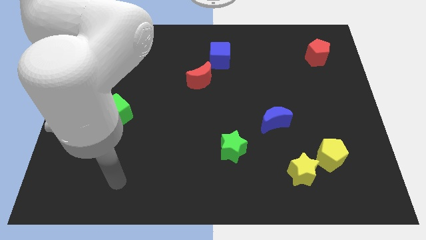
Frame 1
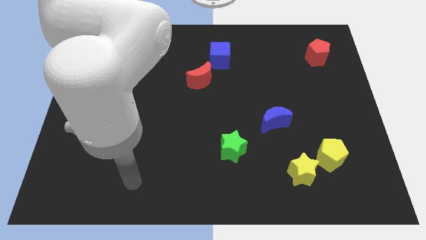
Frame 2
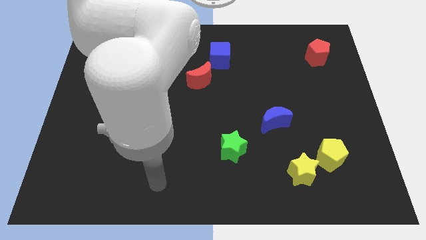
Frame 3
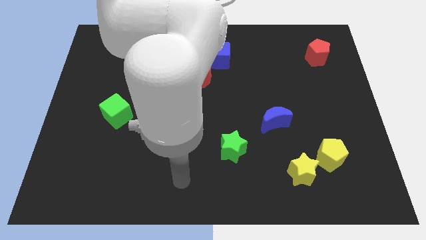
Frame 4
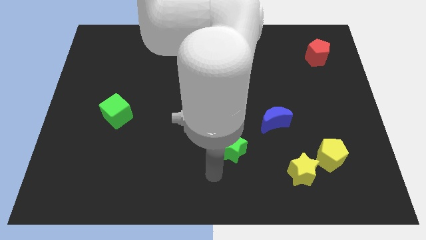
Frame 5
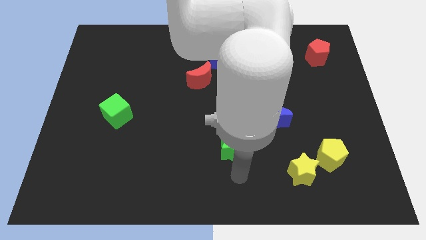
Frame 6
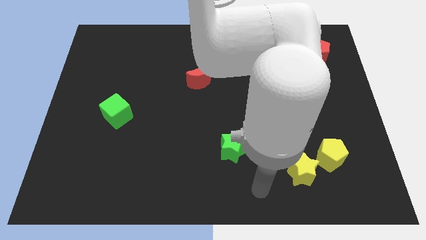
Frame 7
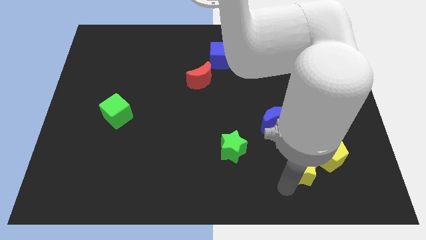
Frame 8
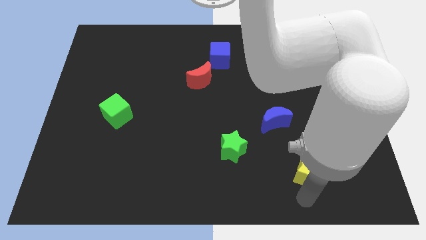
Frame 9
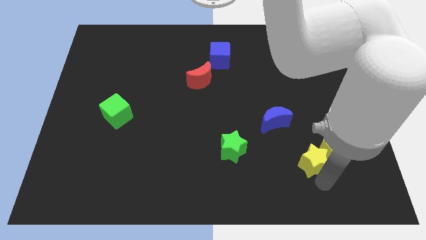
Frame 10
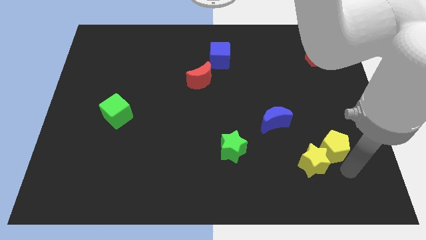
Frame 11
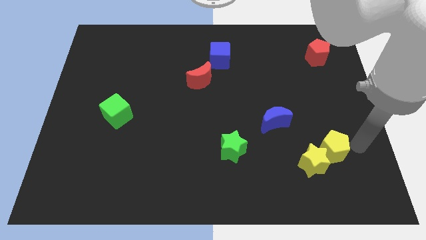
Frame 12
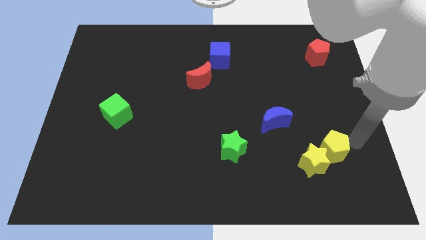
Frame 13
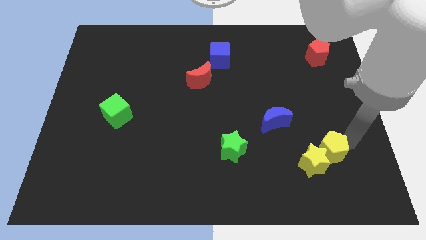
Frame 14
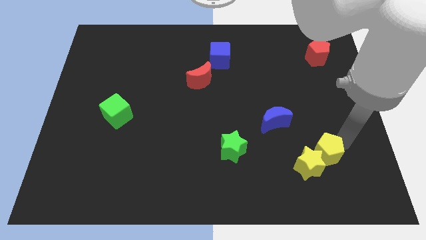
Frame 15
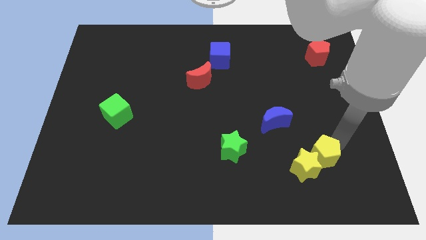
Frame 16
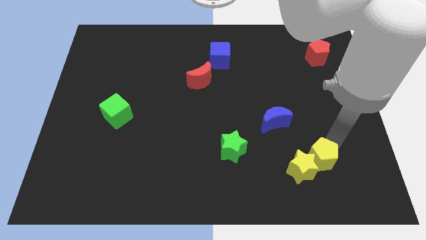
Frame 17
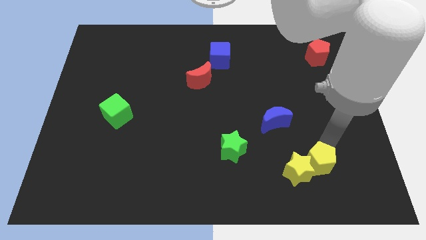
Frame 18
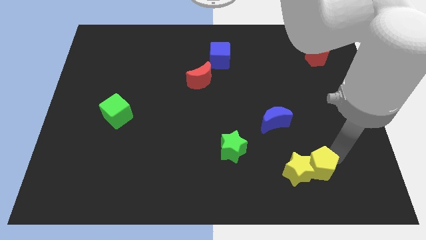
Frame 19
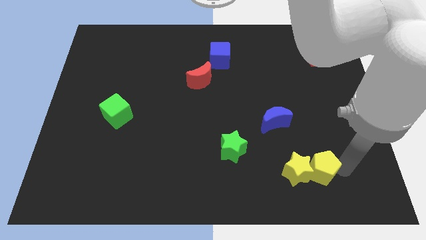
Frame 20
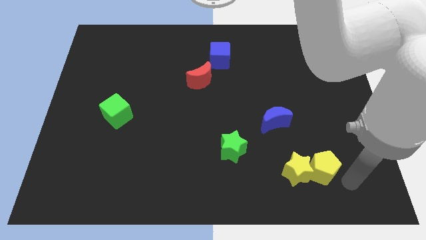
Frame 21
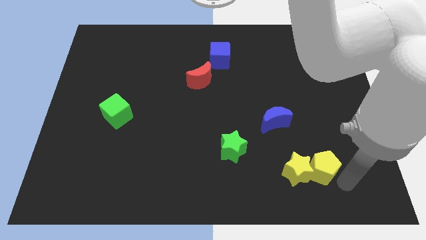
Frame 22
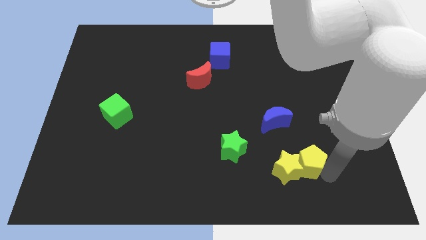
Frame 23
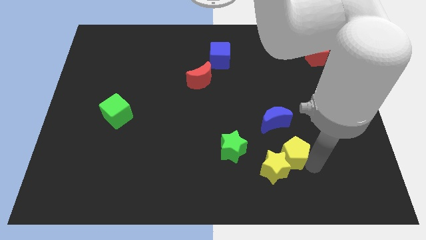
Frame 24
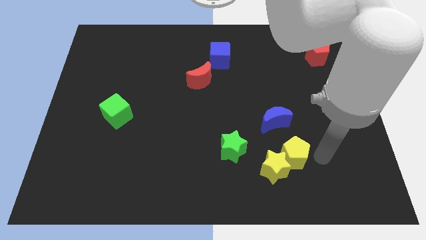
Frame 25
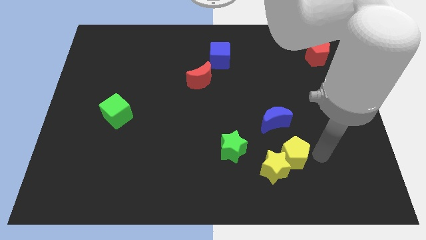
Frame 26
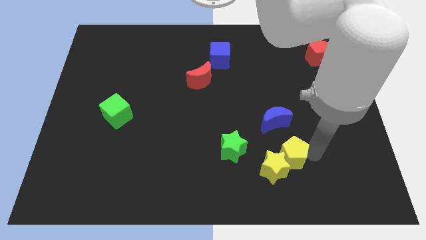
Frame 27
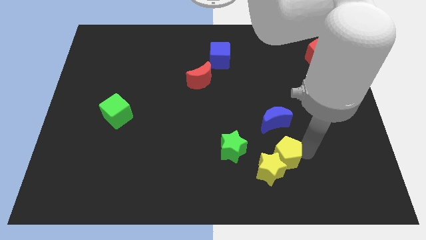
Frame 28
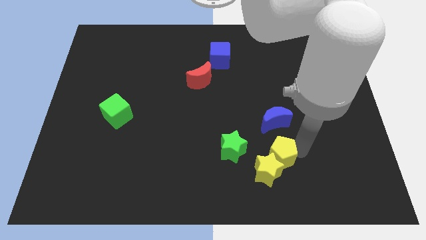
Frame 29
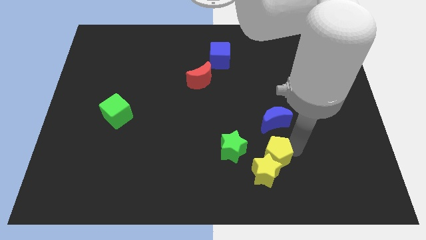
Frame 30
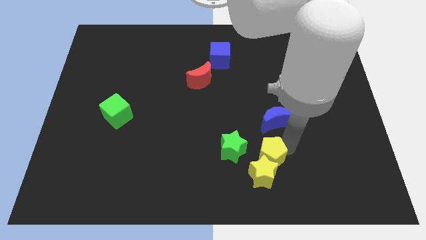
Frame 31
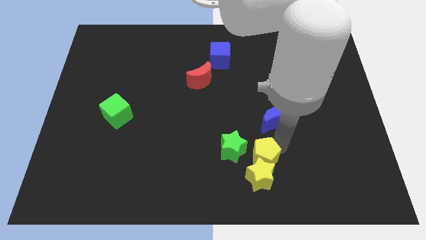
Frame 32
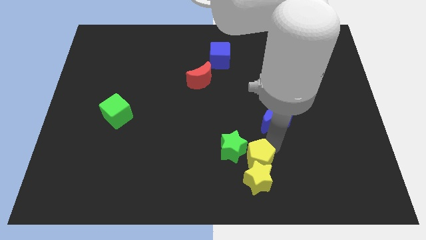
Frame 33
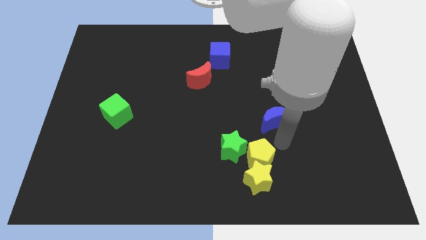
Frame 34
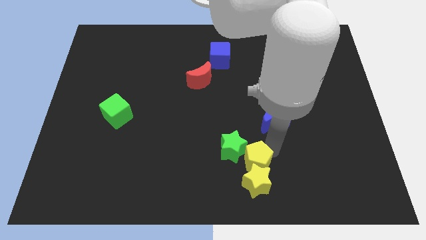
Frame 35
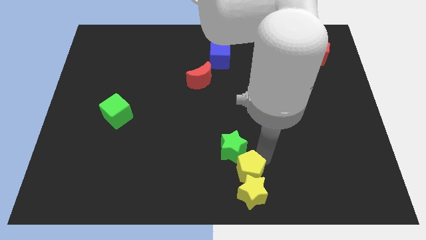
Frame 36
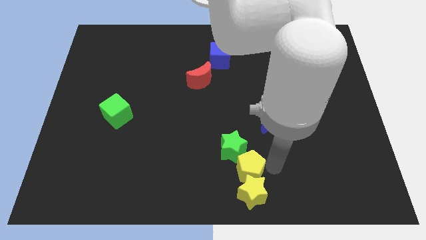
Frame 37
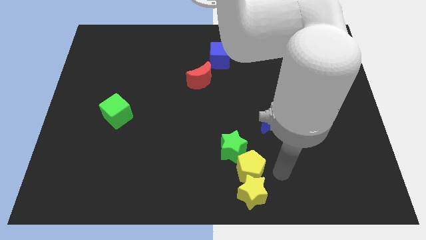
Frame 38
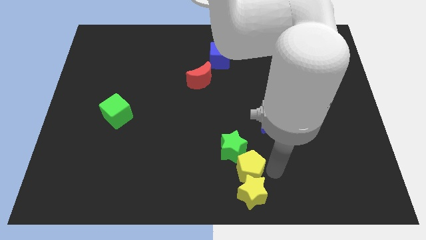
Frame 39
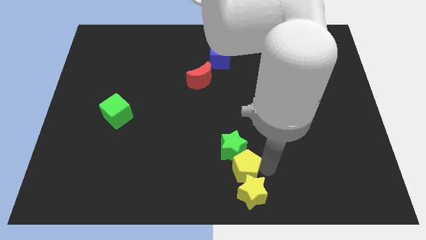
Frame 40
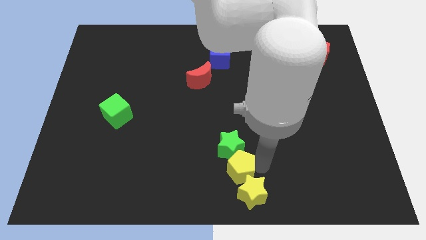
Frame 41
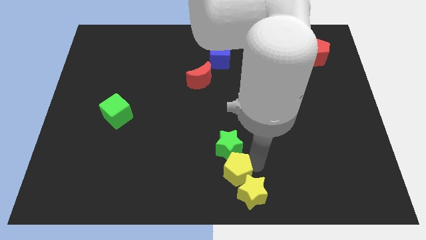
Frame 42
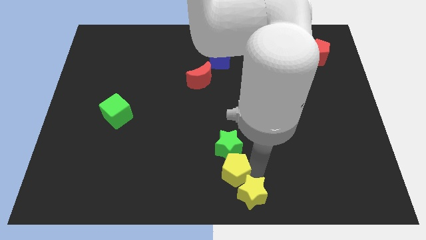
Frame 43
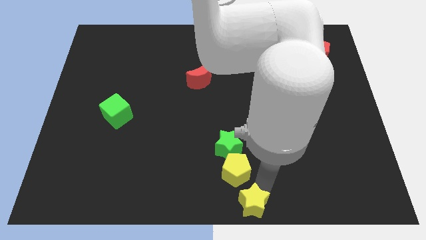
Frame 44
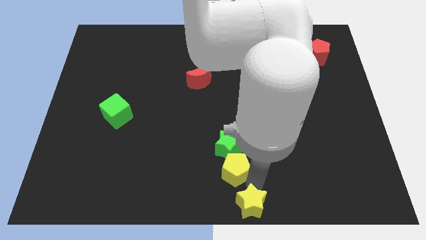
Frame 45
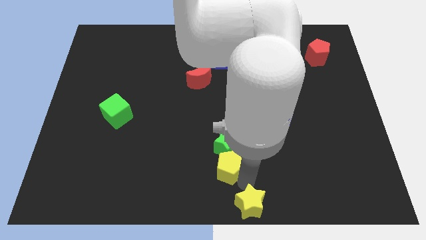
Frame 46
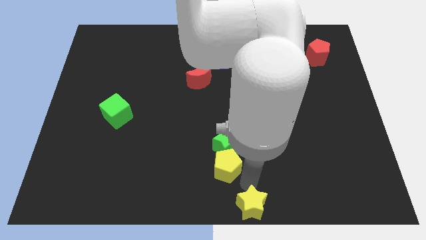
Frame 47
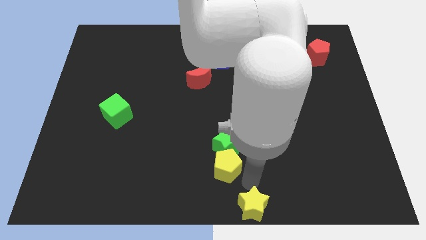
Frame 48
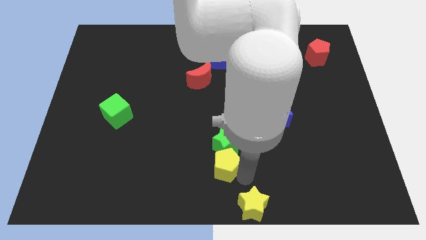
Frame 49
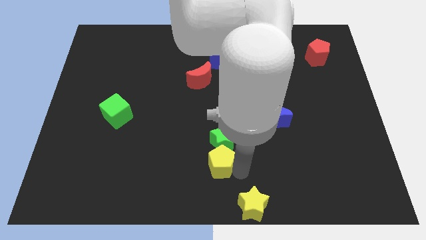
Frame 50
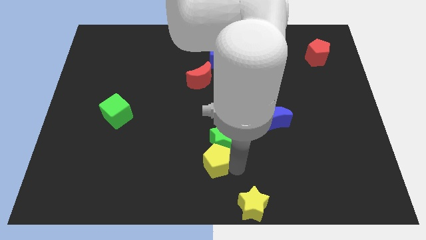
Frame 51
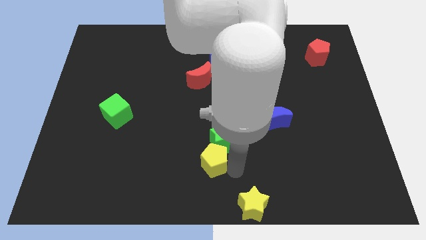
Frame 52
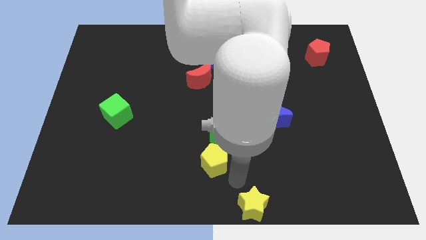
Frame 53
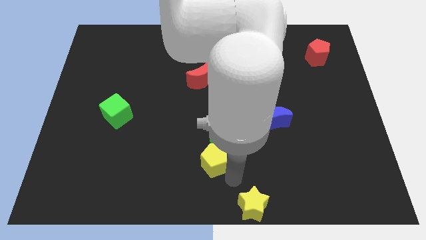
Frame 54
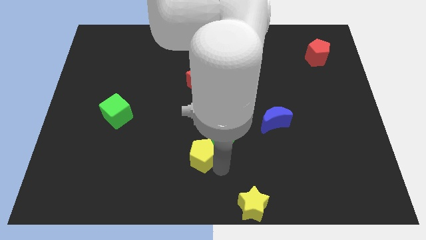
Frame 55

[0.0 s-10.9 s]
push the yellow pentagon to the left side of the green star

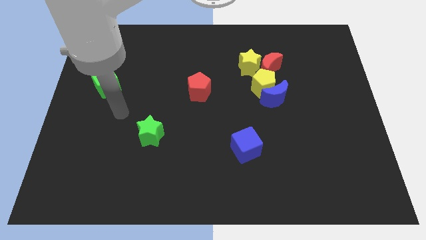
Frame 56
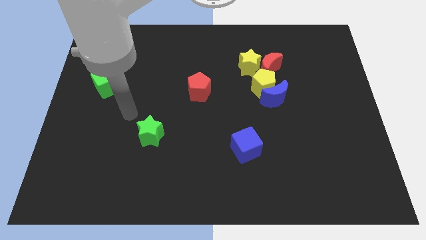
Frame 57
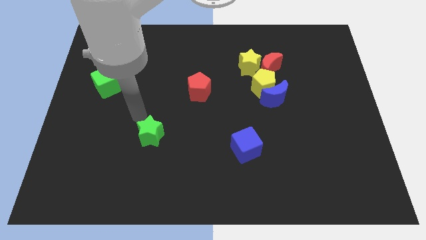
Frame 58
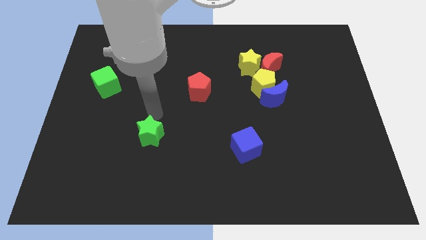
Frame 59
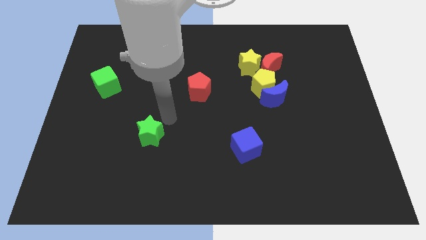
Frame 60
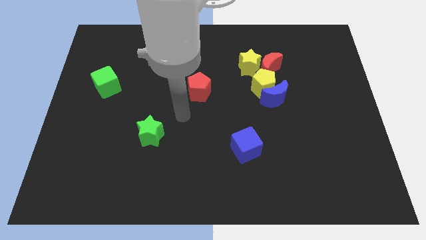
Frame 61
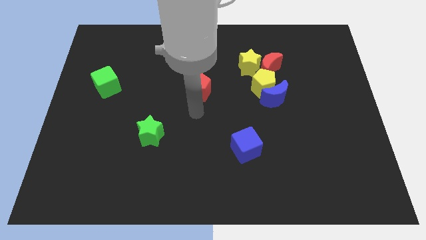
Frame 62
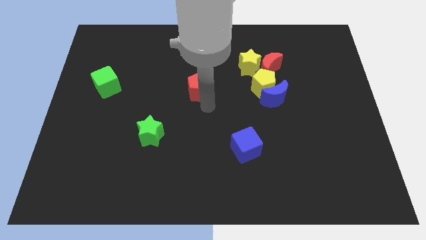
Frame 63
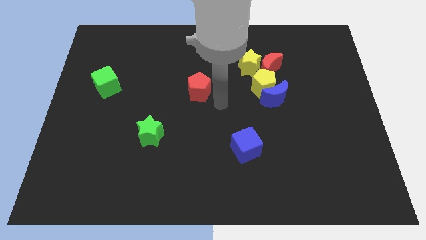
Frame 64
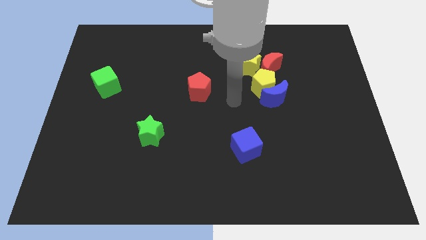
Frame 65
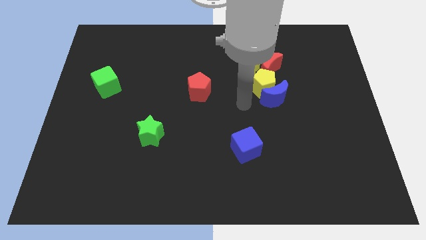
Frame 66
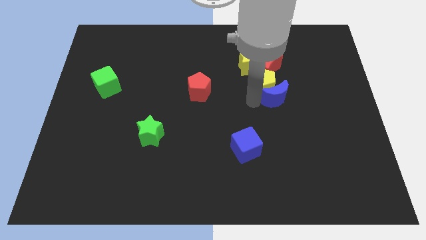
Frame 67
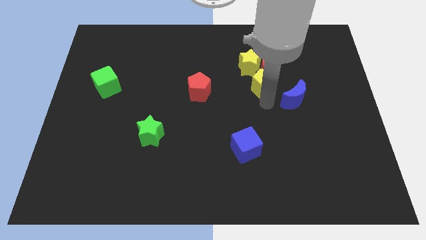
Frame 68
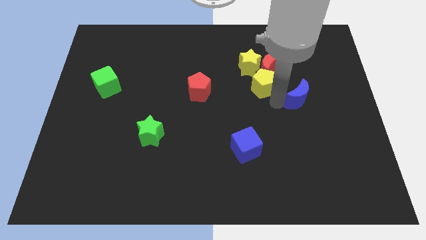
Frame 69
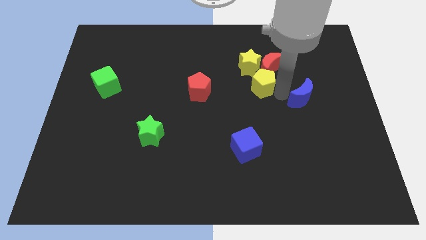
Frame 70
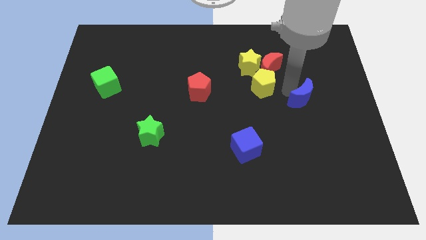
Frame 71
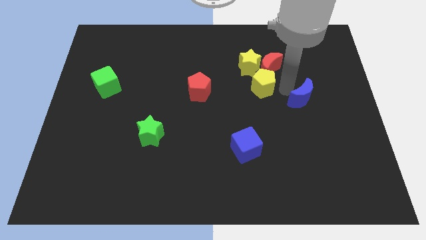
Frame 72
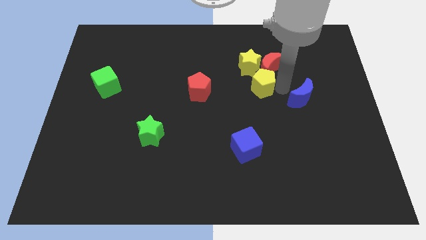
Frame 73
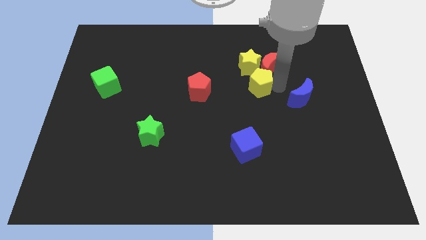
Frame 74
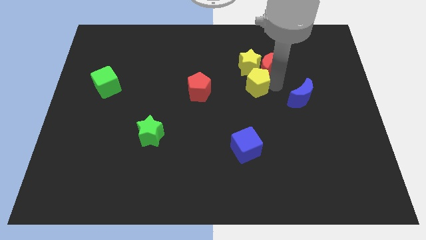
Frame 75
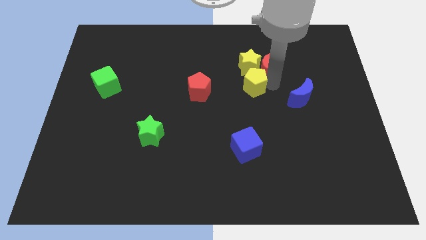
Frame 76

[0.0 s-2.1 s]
push the yellow pentagon diagonally down and to the left of the yellow star
